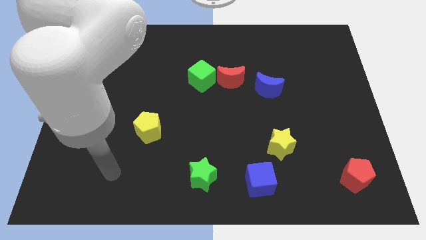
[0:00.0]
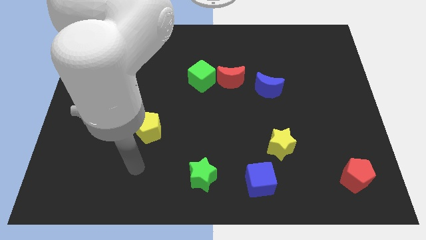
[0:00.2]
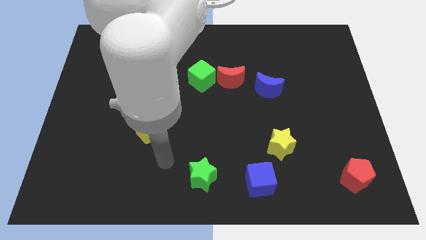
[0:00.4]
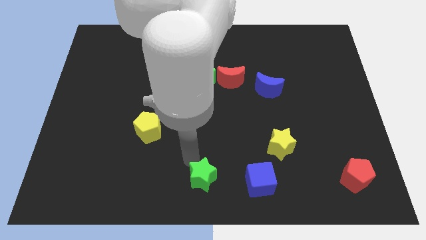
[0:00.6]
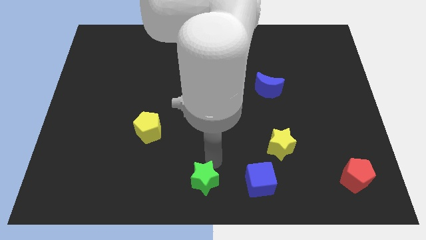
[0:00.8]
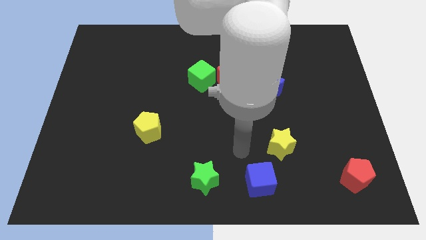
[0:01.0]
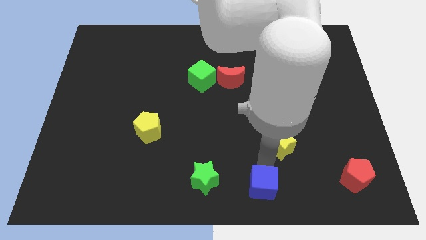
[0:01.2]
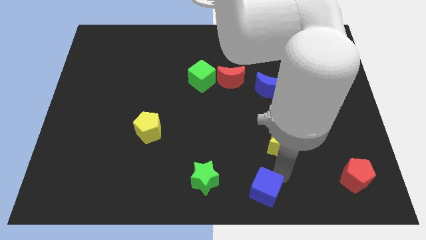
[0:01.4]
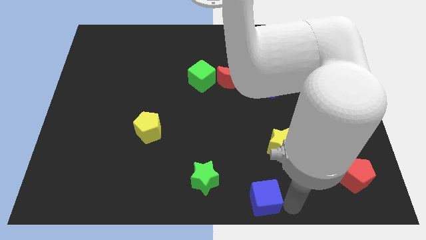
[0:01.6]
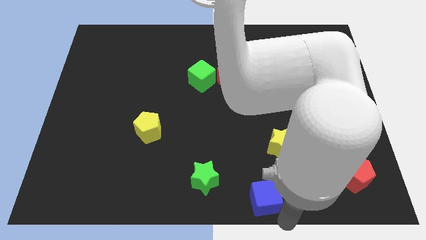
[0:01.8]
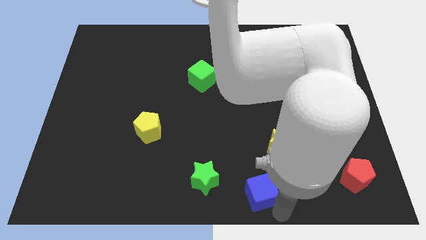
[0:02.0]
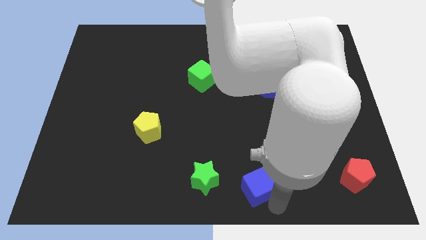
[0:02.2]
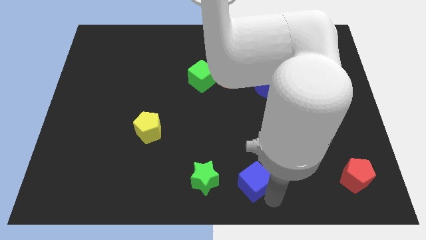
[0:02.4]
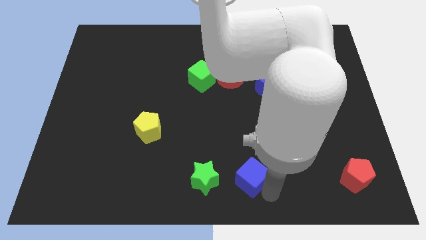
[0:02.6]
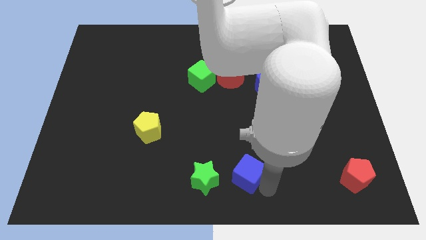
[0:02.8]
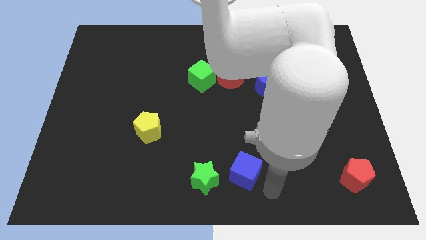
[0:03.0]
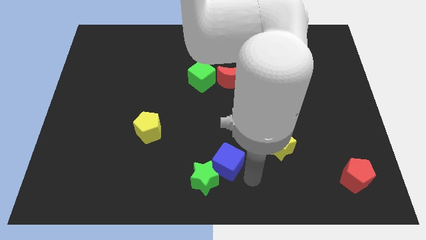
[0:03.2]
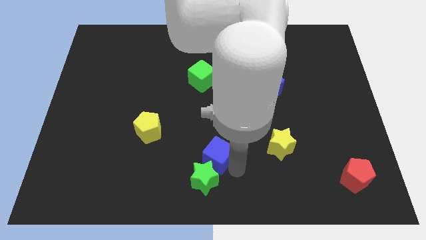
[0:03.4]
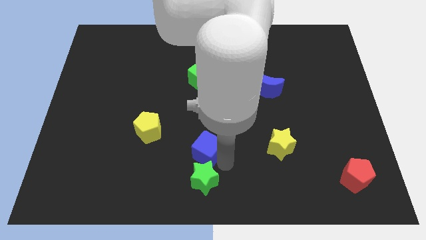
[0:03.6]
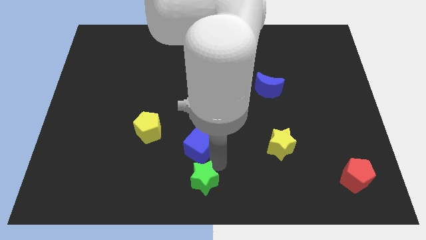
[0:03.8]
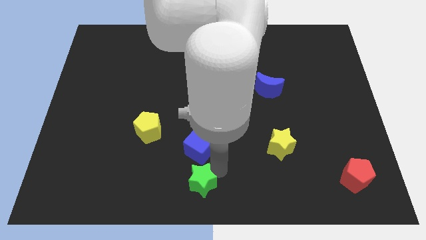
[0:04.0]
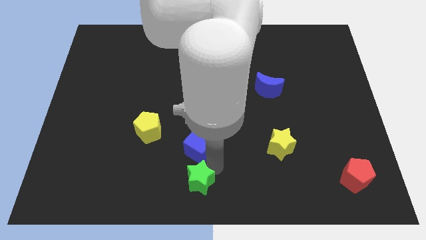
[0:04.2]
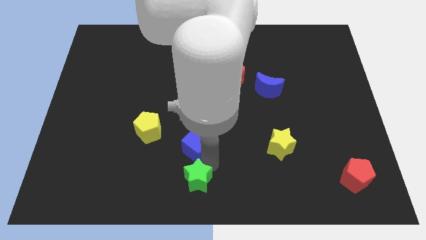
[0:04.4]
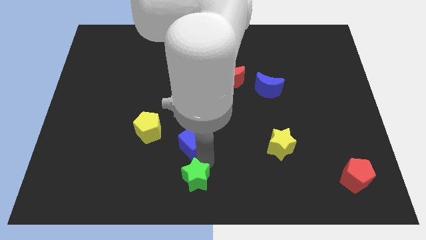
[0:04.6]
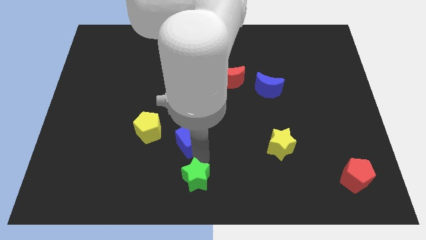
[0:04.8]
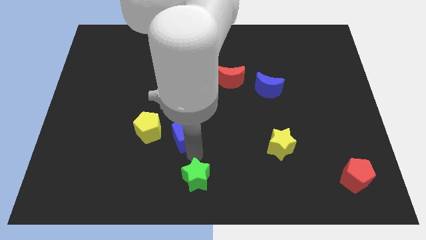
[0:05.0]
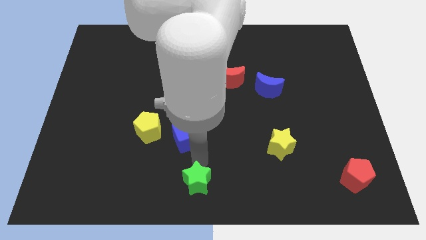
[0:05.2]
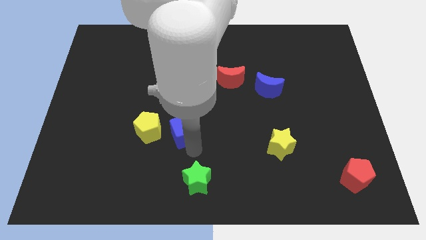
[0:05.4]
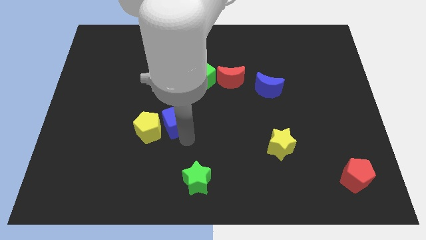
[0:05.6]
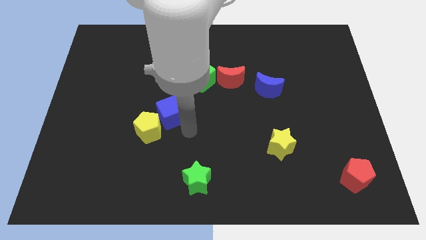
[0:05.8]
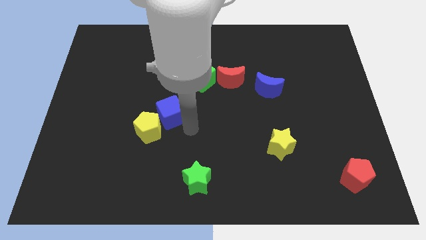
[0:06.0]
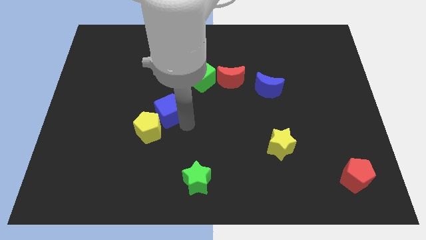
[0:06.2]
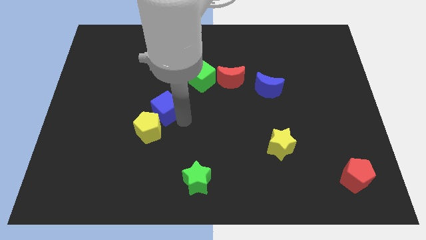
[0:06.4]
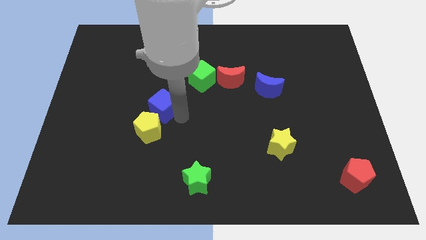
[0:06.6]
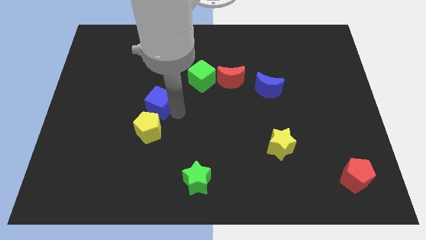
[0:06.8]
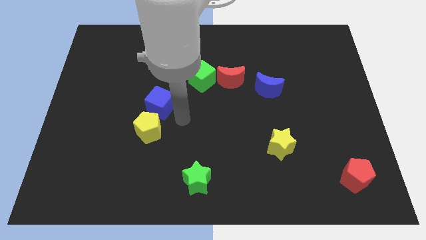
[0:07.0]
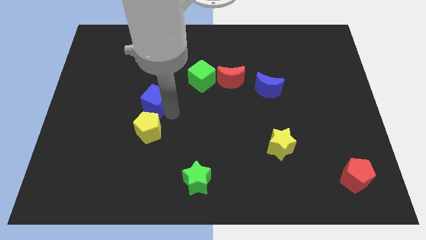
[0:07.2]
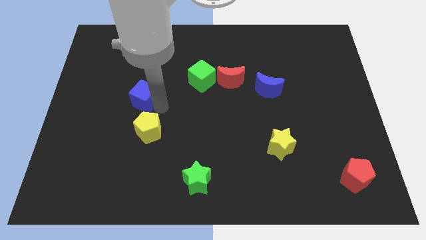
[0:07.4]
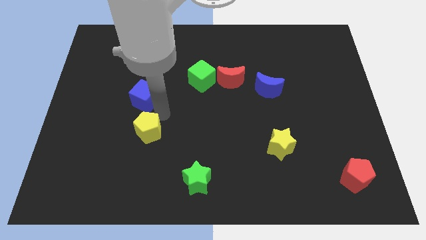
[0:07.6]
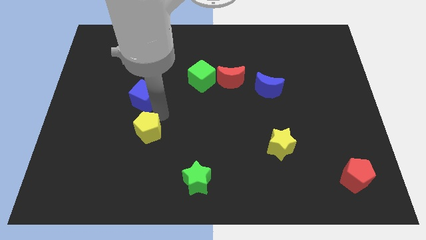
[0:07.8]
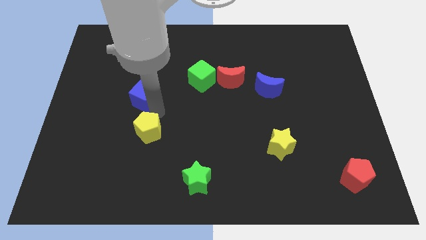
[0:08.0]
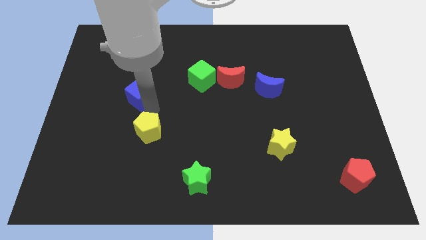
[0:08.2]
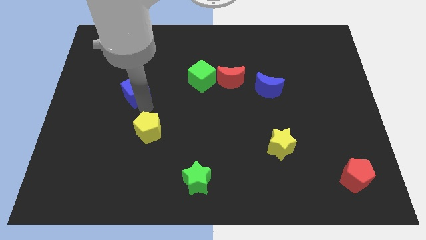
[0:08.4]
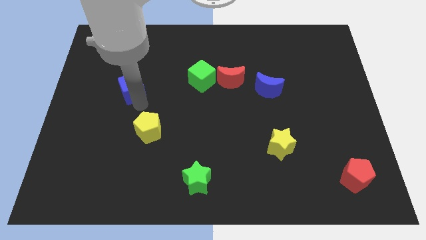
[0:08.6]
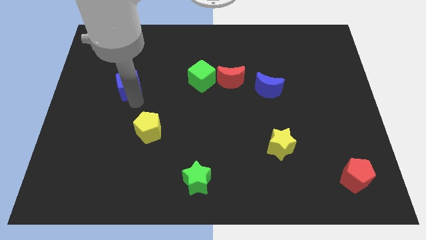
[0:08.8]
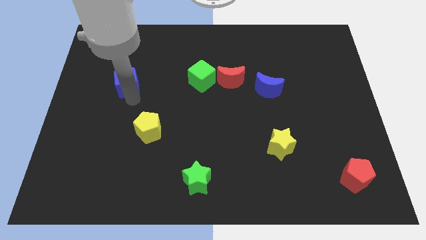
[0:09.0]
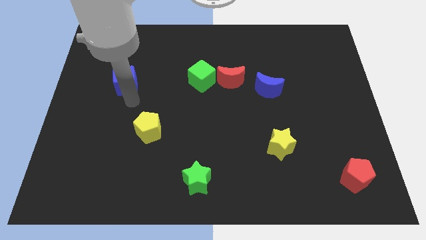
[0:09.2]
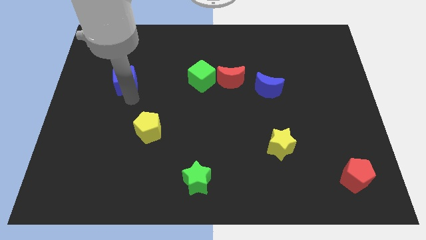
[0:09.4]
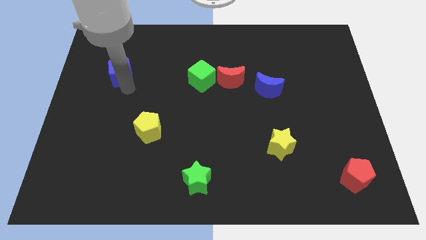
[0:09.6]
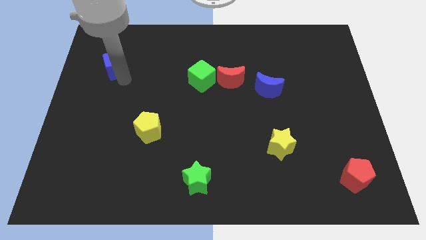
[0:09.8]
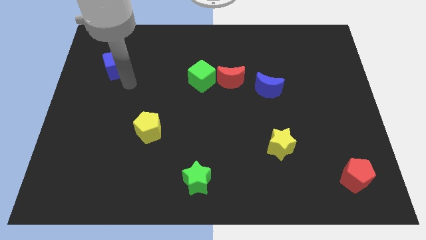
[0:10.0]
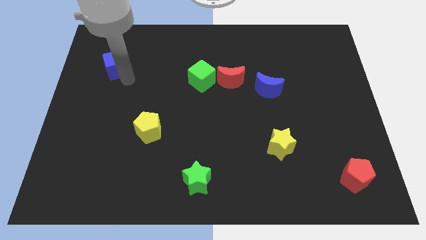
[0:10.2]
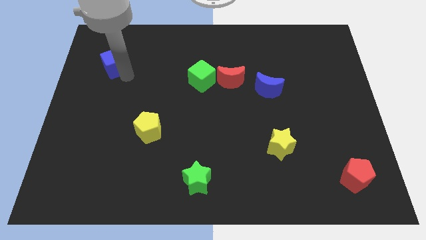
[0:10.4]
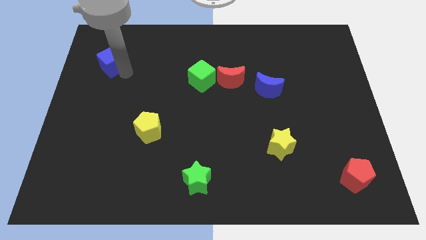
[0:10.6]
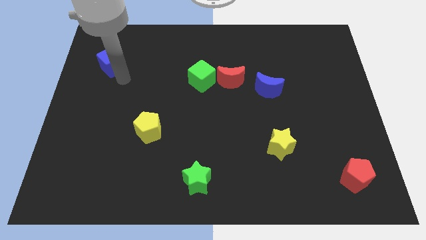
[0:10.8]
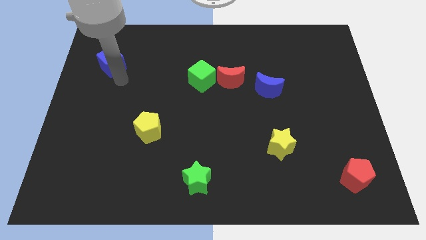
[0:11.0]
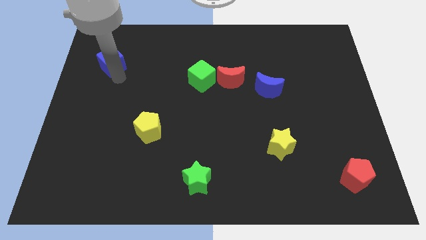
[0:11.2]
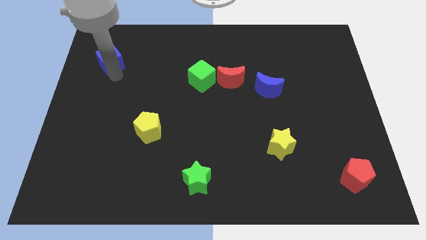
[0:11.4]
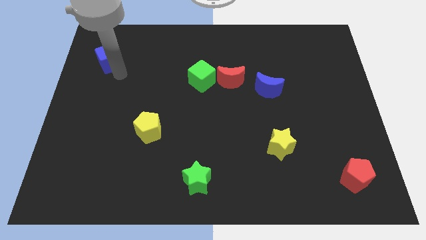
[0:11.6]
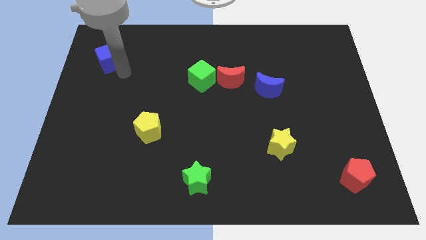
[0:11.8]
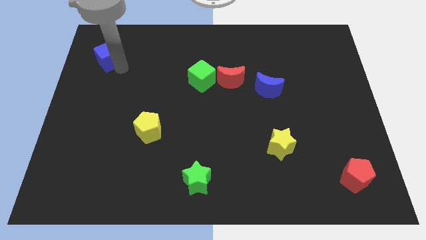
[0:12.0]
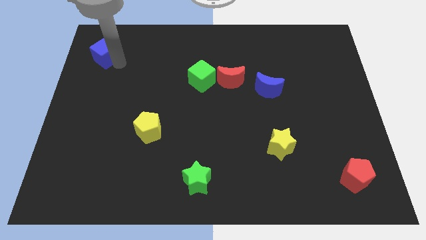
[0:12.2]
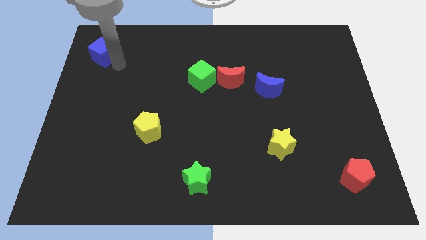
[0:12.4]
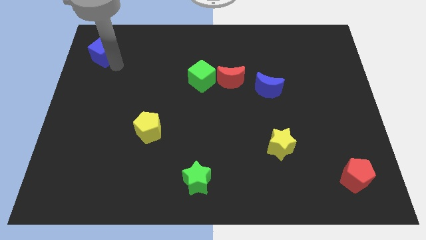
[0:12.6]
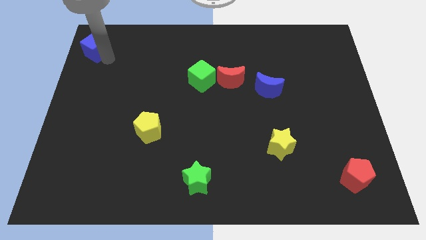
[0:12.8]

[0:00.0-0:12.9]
push the blue cube to the top left corner
